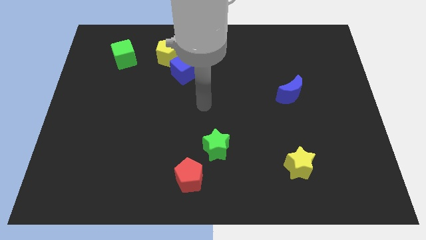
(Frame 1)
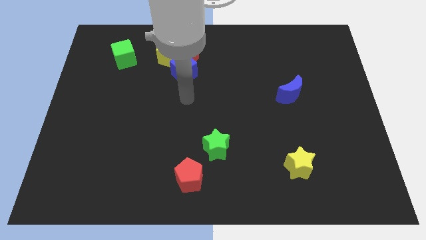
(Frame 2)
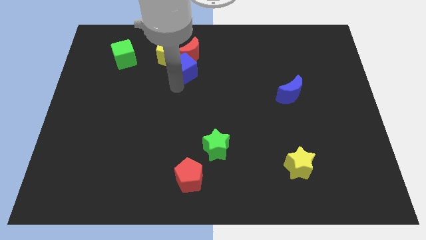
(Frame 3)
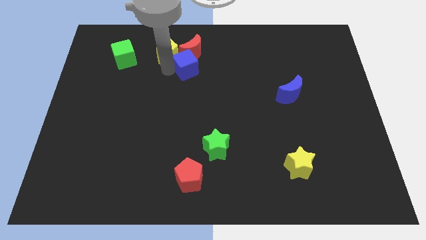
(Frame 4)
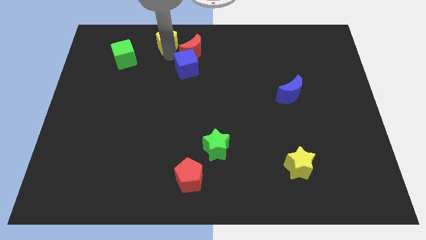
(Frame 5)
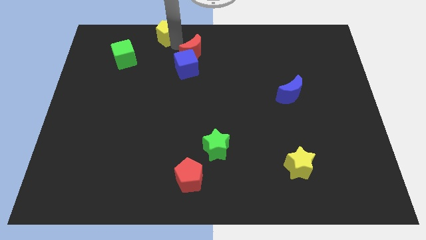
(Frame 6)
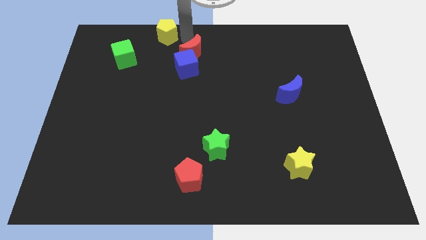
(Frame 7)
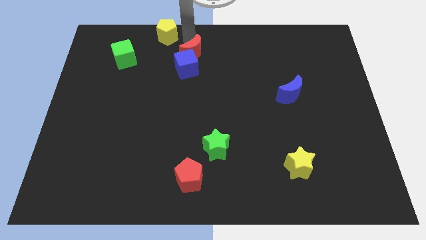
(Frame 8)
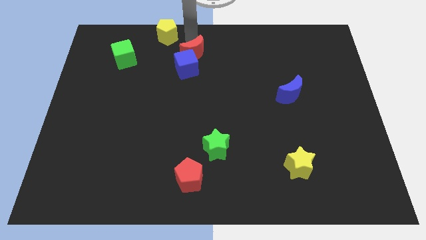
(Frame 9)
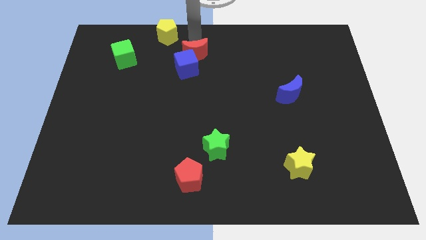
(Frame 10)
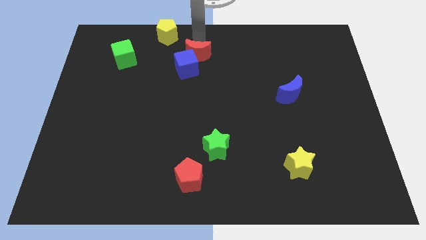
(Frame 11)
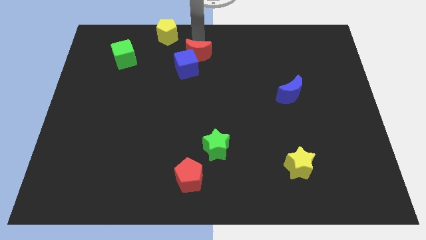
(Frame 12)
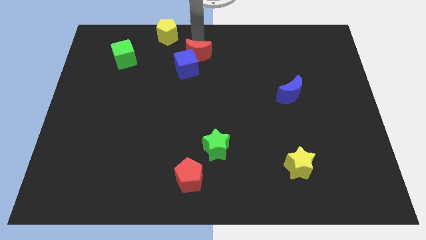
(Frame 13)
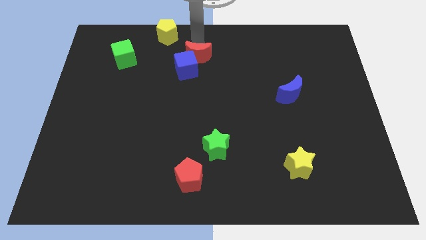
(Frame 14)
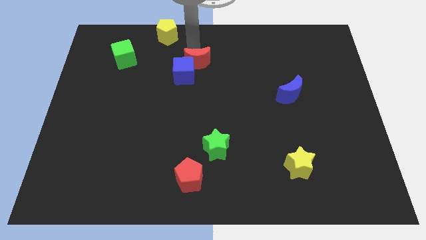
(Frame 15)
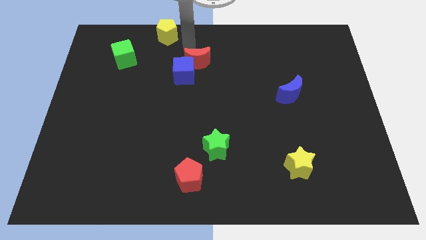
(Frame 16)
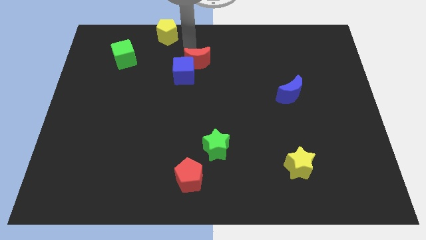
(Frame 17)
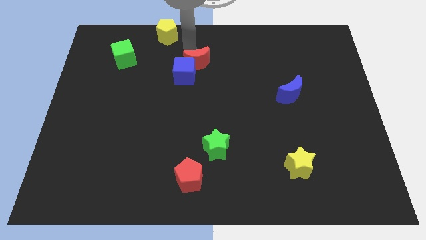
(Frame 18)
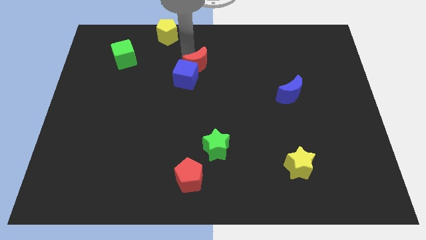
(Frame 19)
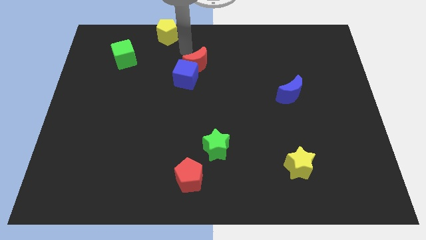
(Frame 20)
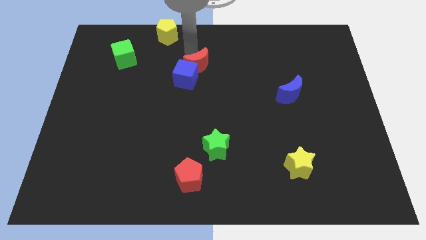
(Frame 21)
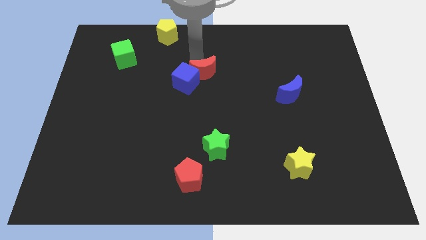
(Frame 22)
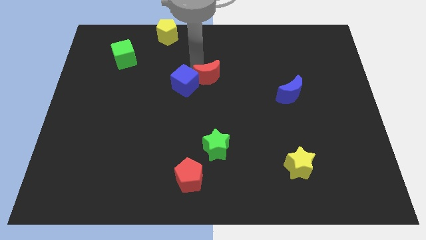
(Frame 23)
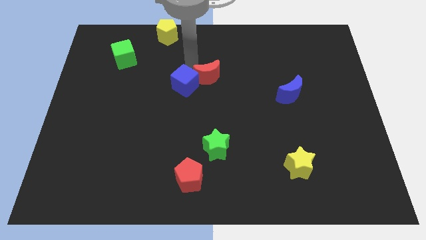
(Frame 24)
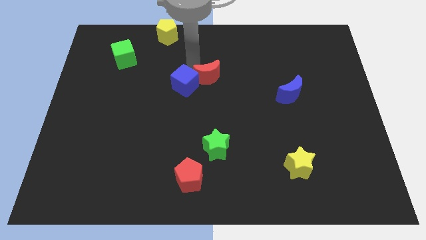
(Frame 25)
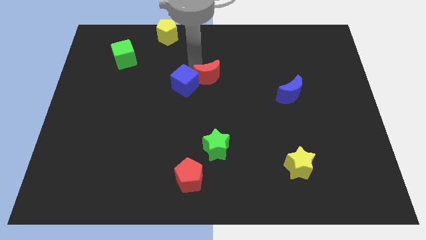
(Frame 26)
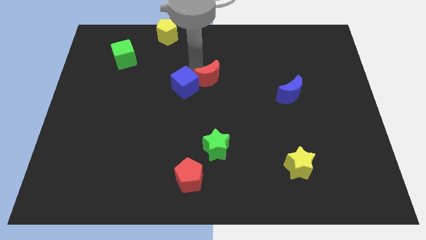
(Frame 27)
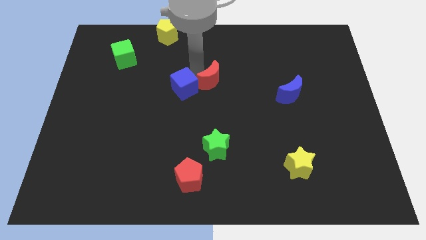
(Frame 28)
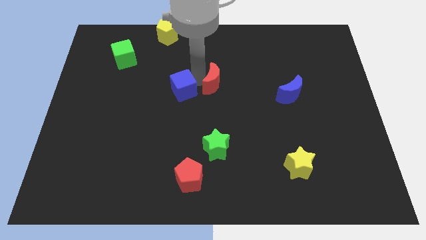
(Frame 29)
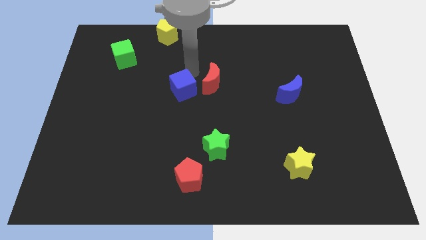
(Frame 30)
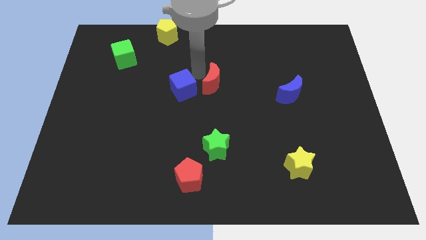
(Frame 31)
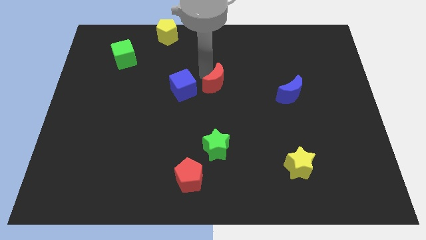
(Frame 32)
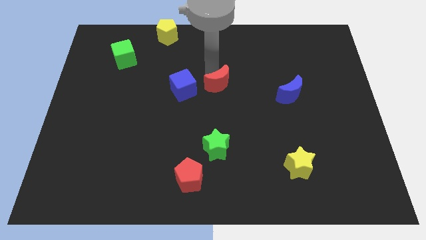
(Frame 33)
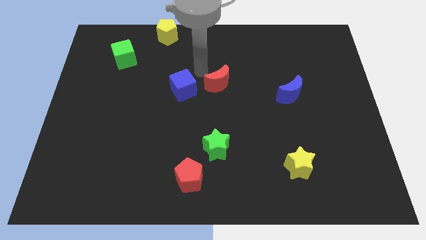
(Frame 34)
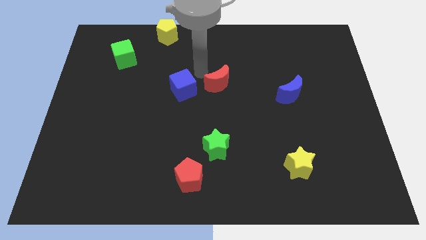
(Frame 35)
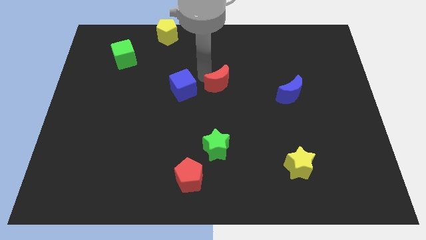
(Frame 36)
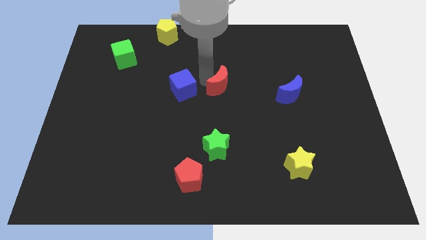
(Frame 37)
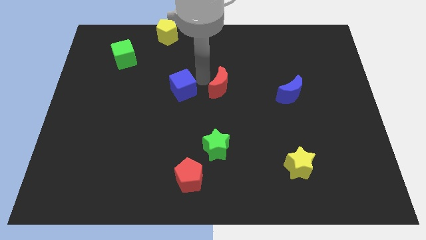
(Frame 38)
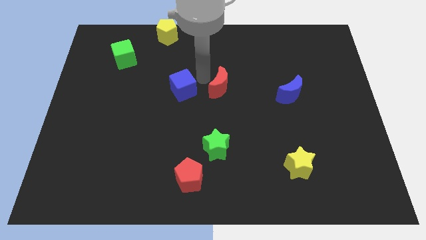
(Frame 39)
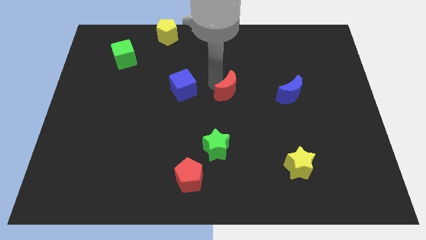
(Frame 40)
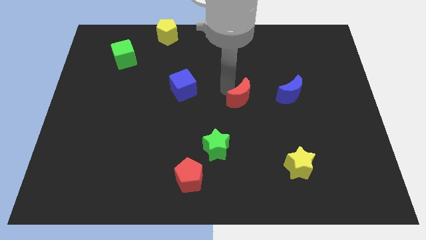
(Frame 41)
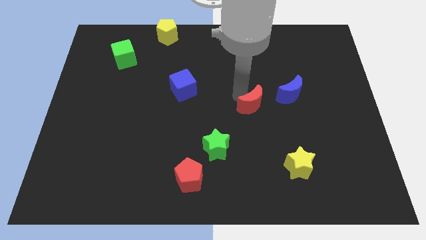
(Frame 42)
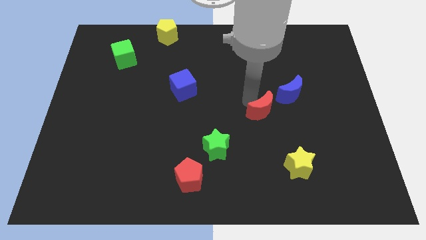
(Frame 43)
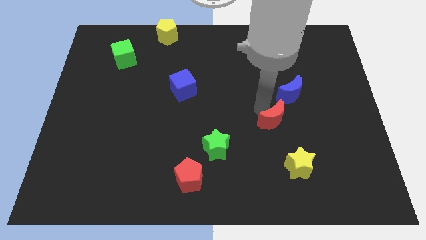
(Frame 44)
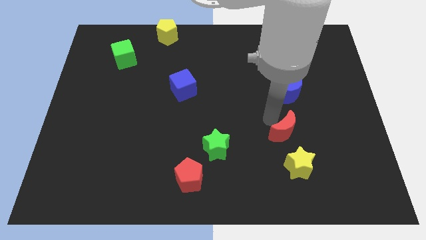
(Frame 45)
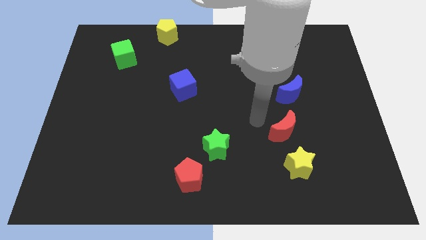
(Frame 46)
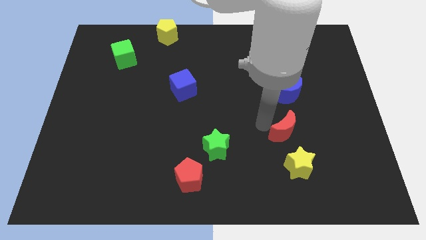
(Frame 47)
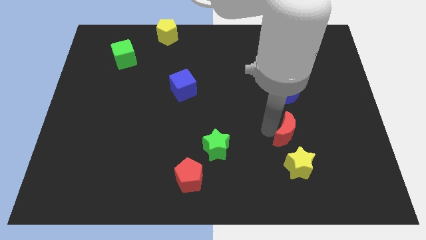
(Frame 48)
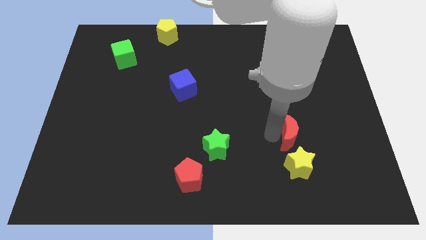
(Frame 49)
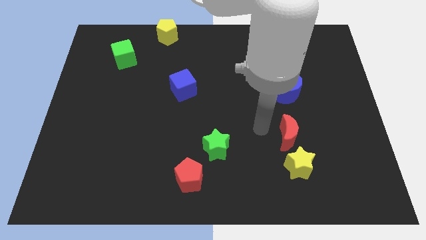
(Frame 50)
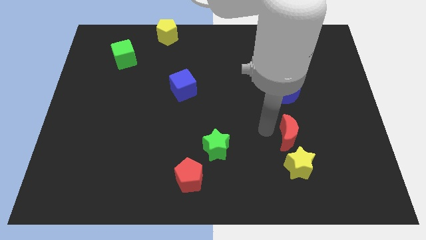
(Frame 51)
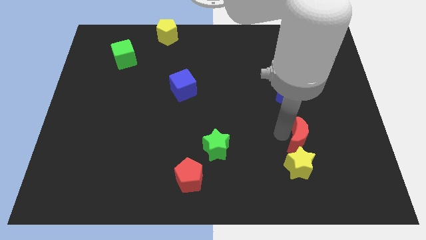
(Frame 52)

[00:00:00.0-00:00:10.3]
push the red moon to the top right of the yellow star

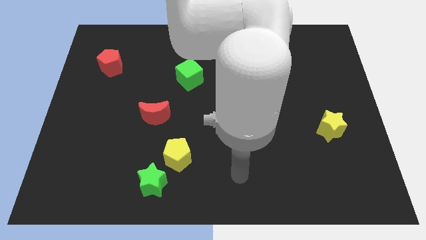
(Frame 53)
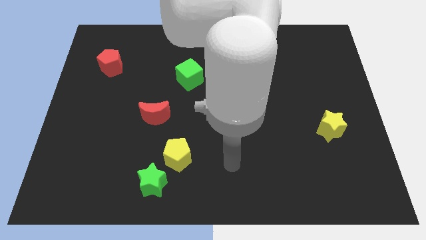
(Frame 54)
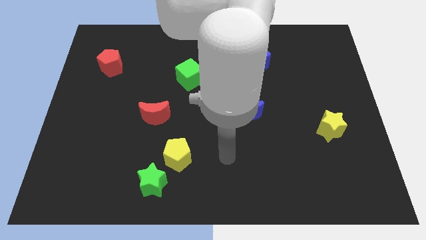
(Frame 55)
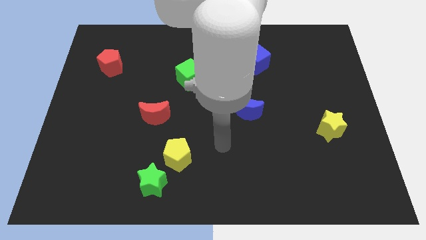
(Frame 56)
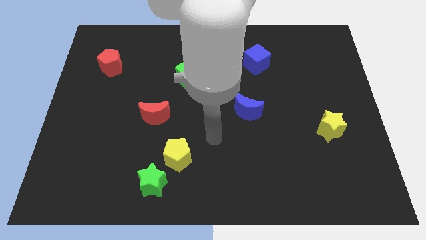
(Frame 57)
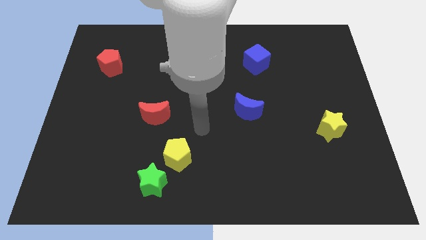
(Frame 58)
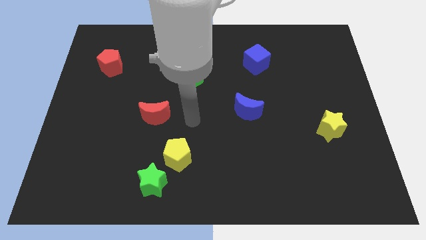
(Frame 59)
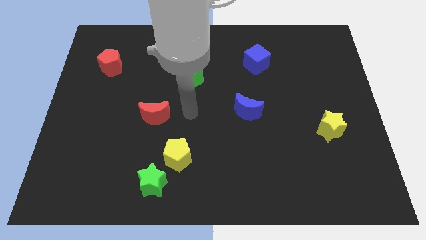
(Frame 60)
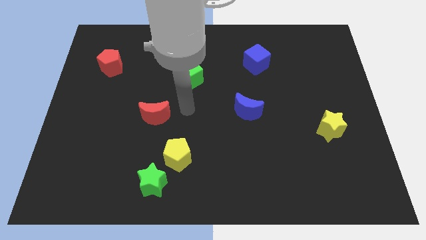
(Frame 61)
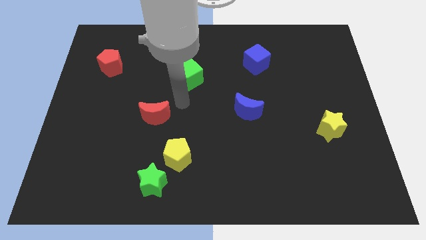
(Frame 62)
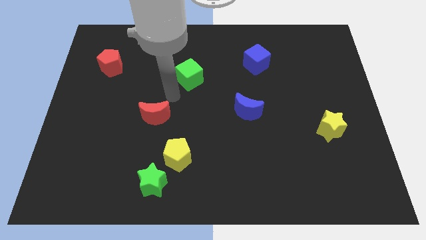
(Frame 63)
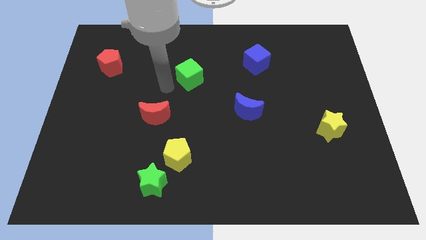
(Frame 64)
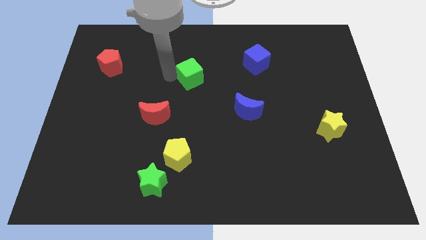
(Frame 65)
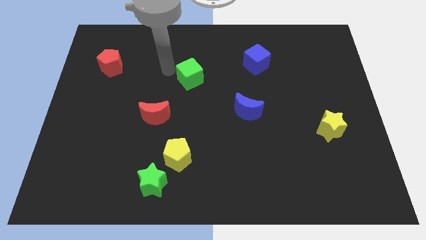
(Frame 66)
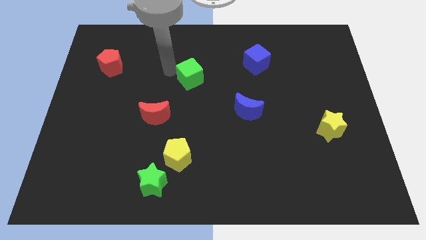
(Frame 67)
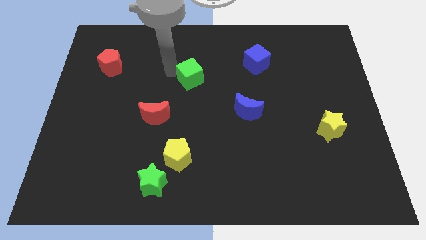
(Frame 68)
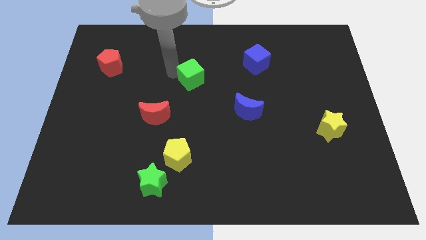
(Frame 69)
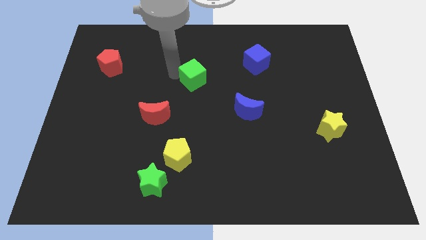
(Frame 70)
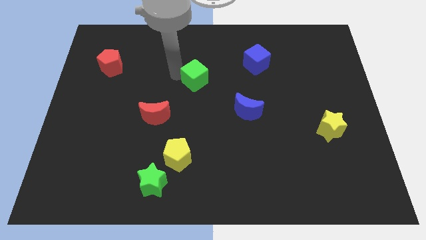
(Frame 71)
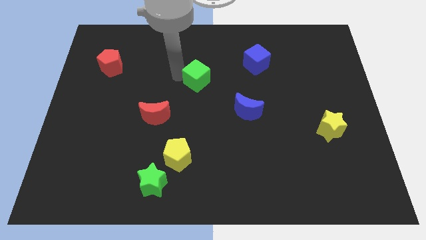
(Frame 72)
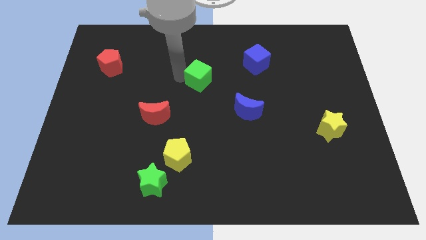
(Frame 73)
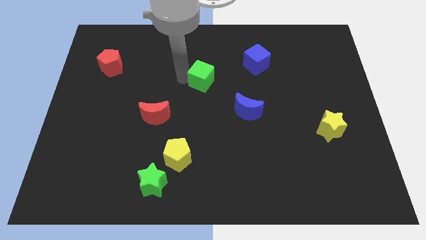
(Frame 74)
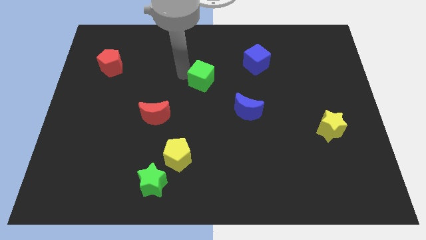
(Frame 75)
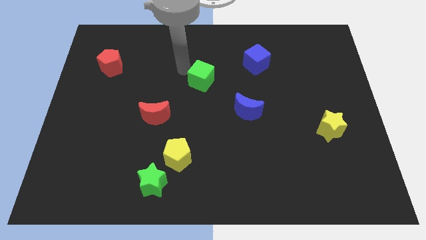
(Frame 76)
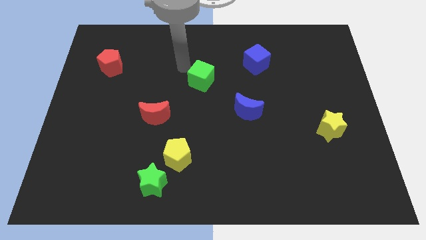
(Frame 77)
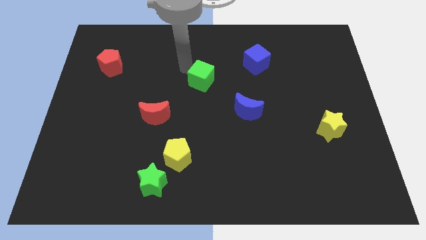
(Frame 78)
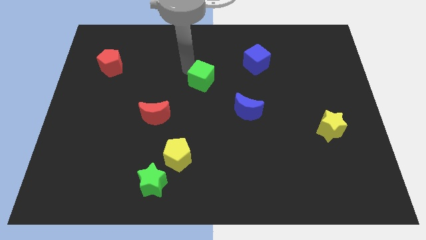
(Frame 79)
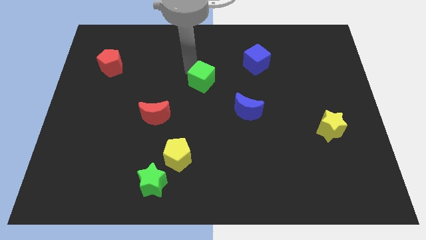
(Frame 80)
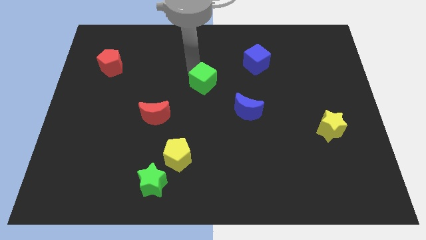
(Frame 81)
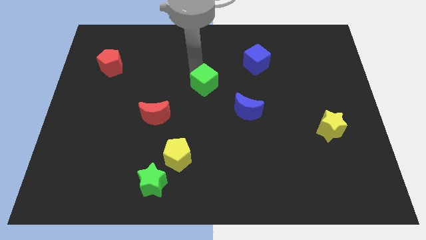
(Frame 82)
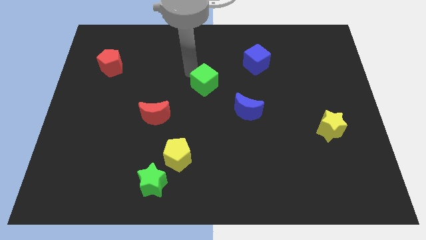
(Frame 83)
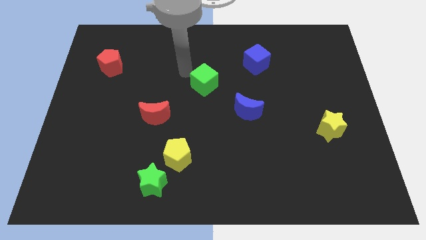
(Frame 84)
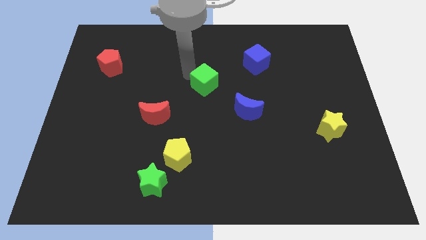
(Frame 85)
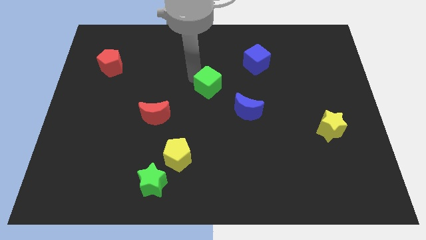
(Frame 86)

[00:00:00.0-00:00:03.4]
push the green cube to the top left side of the blue moon
